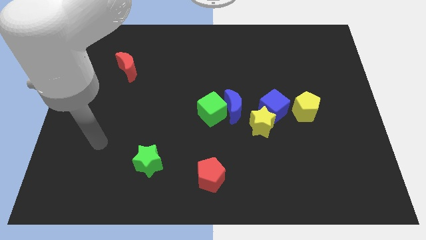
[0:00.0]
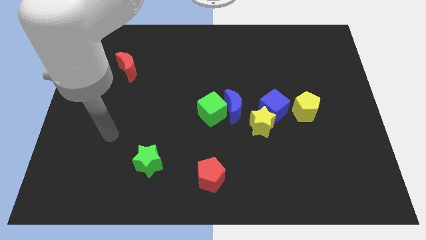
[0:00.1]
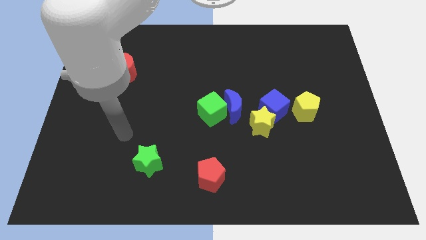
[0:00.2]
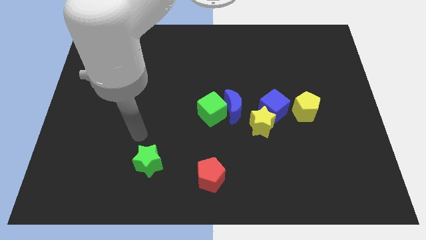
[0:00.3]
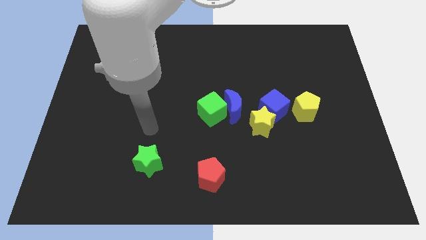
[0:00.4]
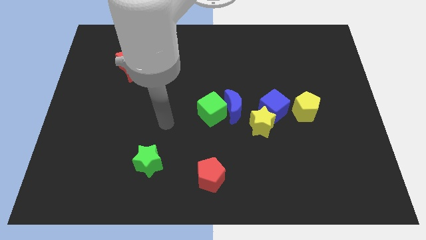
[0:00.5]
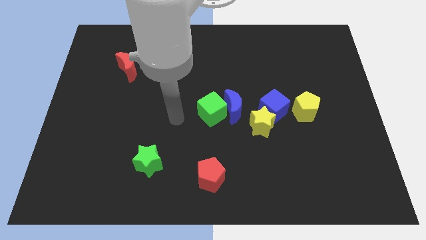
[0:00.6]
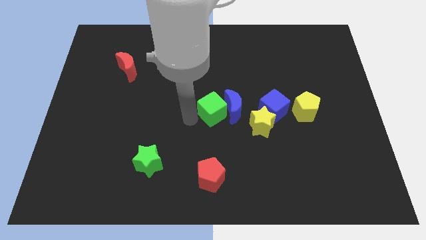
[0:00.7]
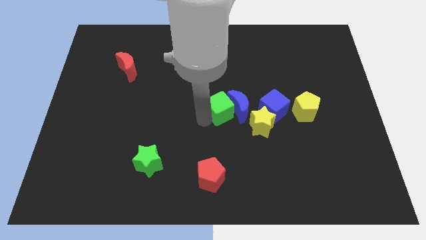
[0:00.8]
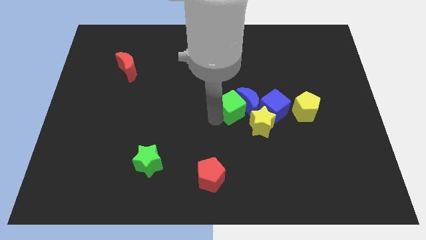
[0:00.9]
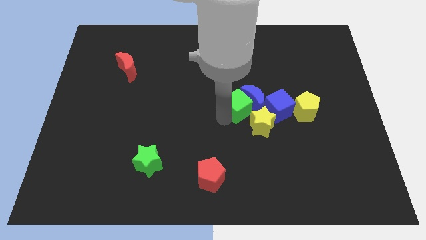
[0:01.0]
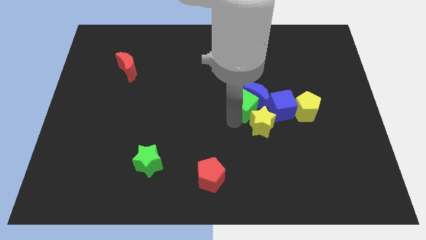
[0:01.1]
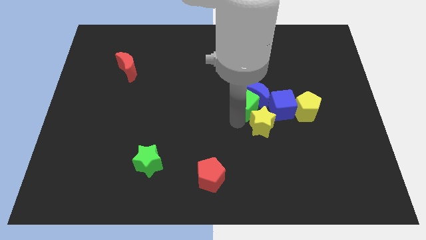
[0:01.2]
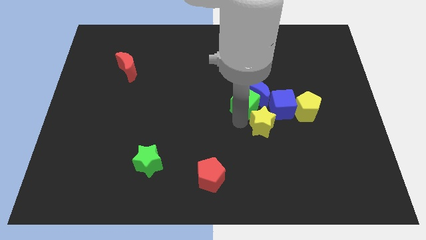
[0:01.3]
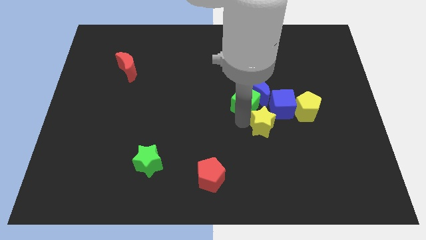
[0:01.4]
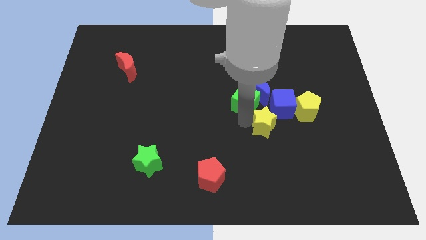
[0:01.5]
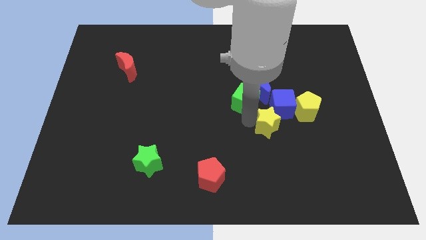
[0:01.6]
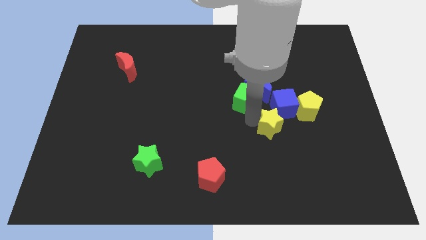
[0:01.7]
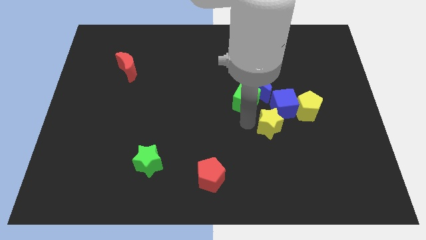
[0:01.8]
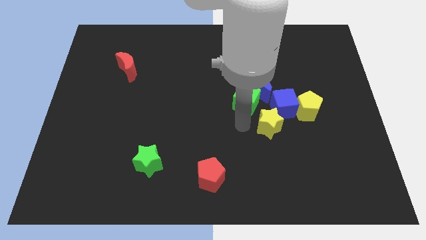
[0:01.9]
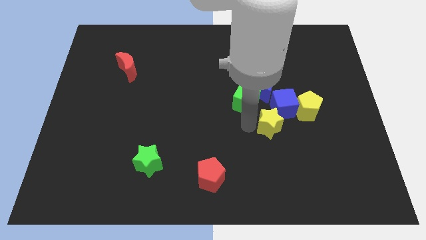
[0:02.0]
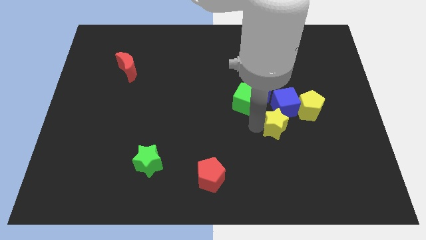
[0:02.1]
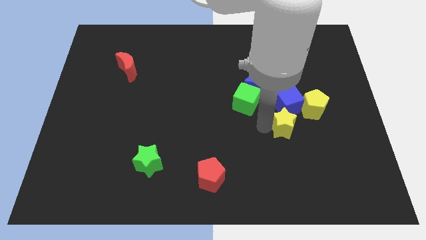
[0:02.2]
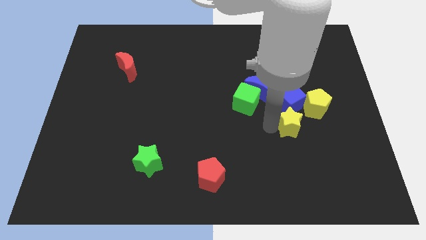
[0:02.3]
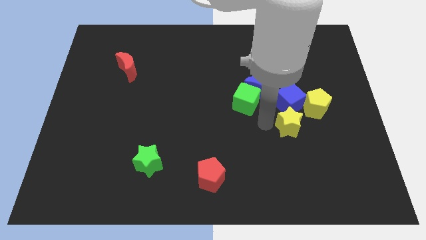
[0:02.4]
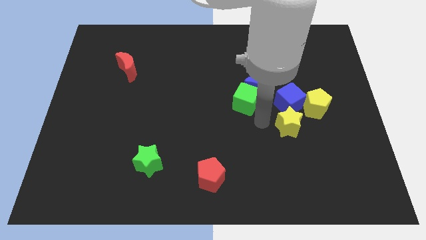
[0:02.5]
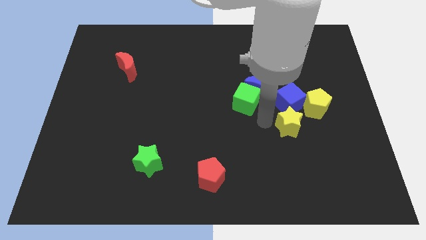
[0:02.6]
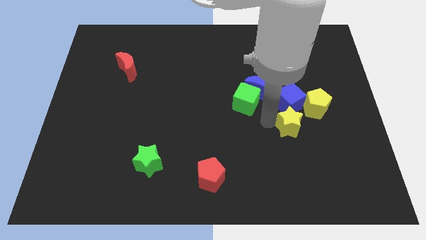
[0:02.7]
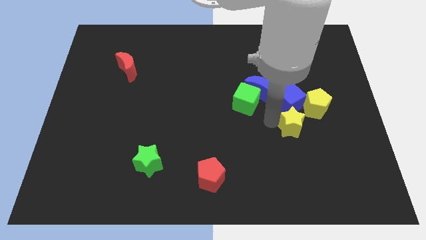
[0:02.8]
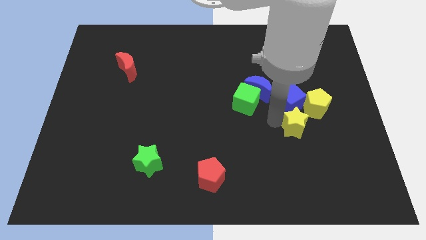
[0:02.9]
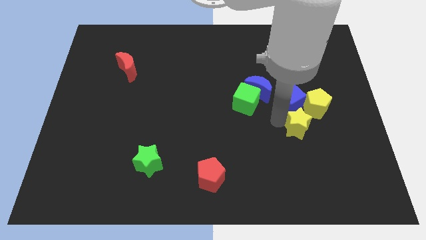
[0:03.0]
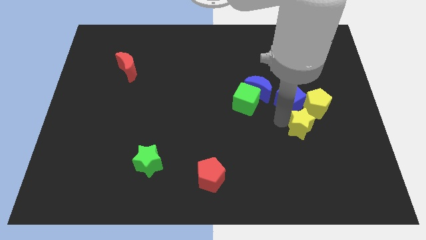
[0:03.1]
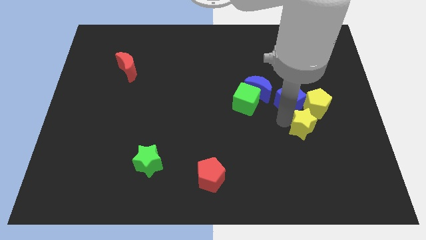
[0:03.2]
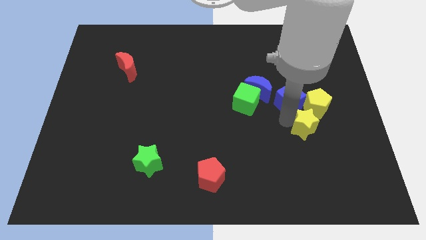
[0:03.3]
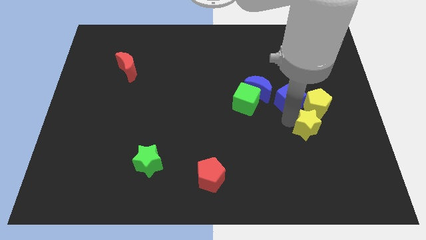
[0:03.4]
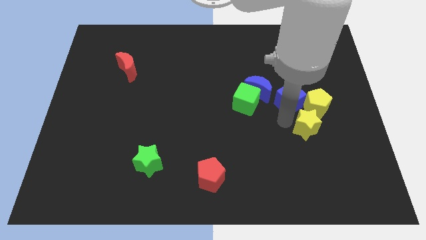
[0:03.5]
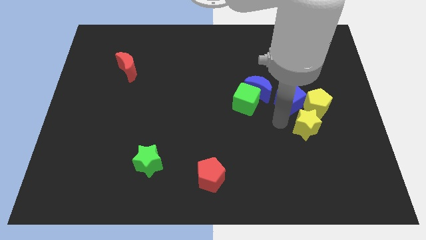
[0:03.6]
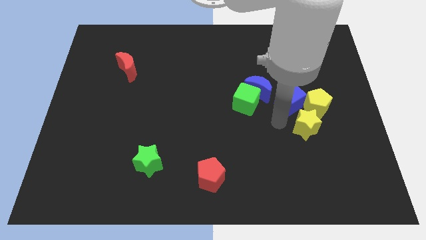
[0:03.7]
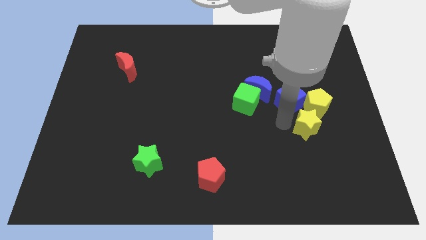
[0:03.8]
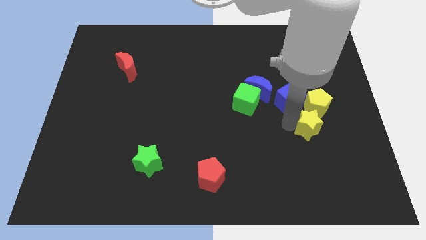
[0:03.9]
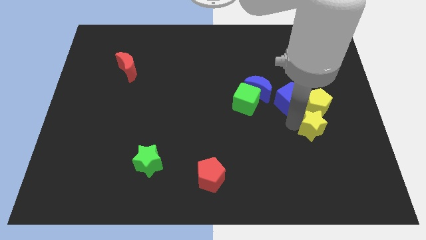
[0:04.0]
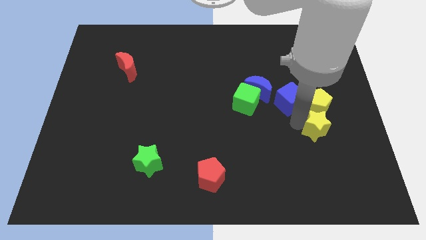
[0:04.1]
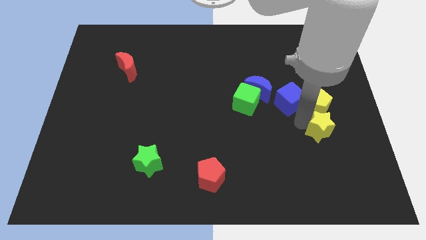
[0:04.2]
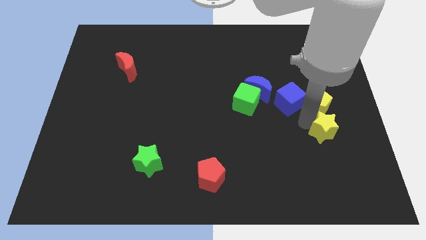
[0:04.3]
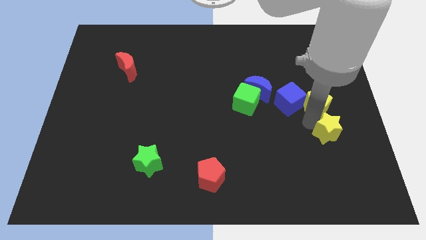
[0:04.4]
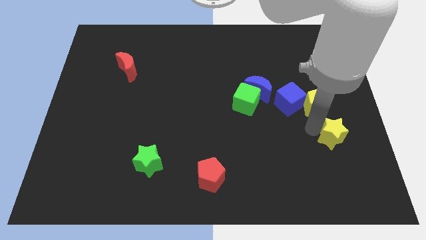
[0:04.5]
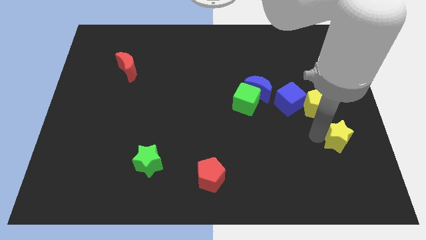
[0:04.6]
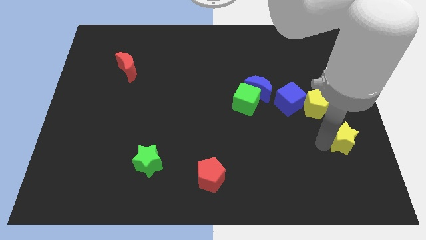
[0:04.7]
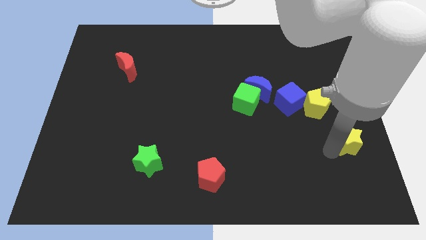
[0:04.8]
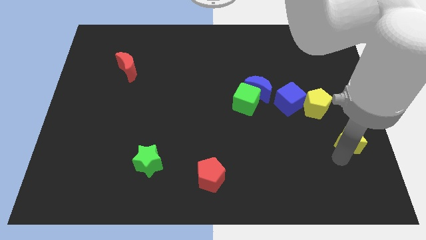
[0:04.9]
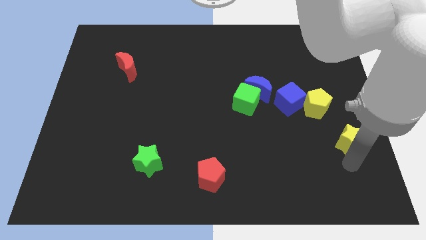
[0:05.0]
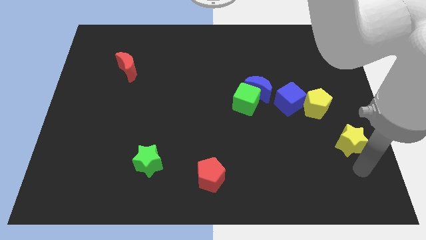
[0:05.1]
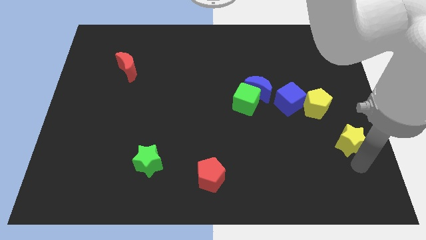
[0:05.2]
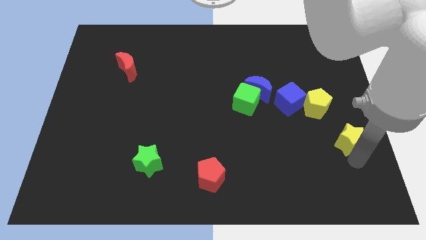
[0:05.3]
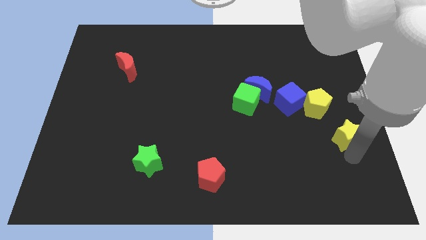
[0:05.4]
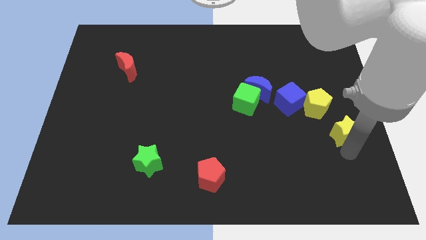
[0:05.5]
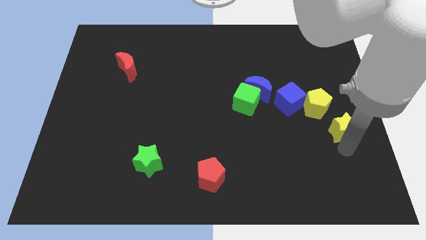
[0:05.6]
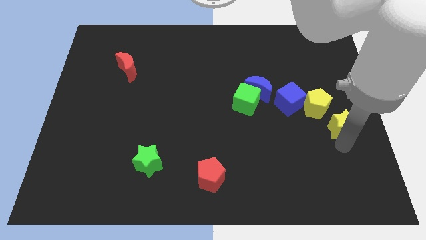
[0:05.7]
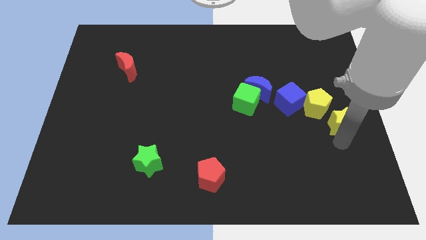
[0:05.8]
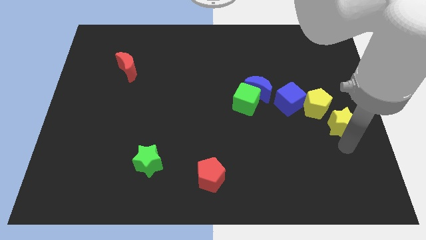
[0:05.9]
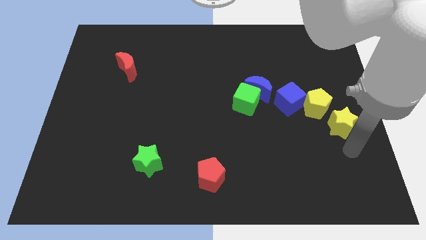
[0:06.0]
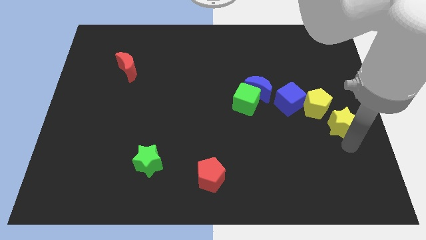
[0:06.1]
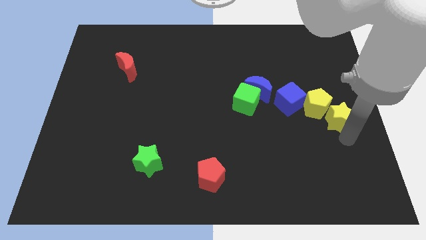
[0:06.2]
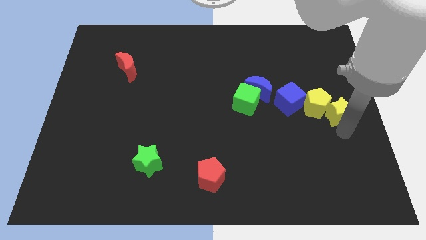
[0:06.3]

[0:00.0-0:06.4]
put the yellow star just right of the blue cube

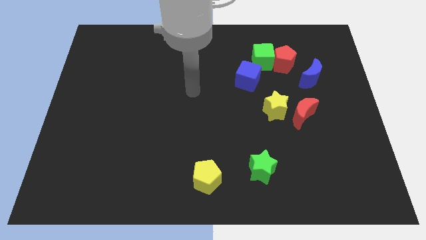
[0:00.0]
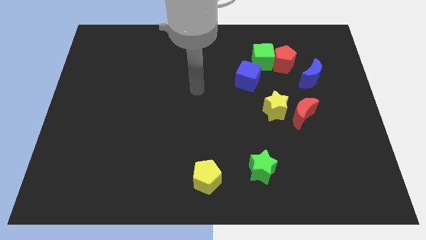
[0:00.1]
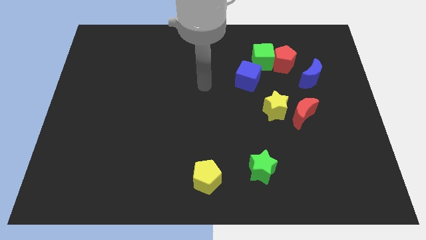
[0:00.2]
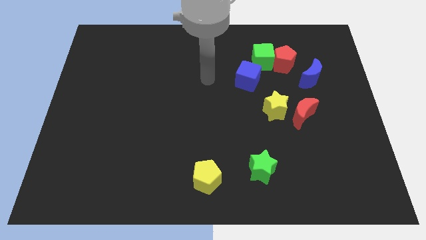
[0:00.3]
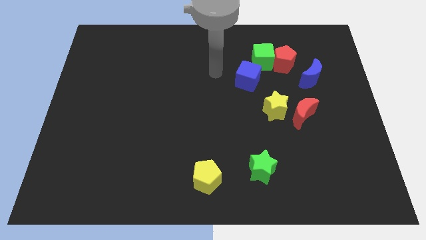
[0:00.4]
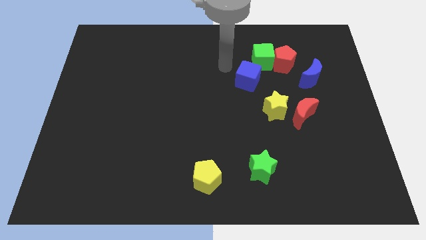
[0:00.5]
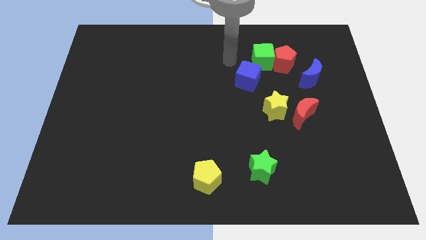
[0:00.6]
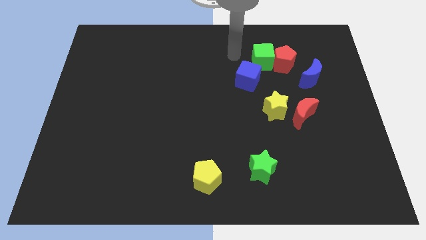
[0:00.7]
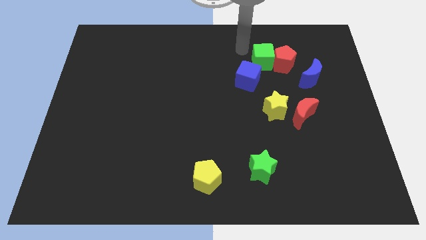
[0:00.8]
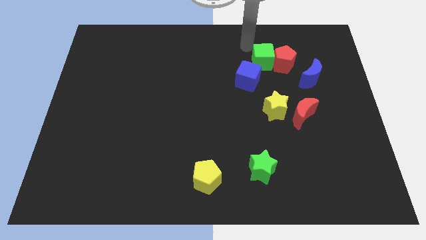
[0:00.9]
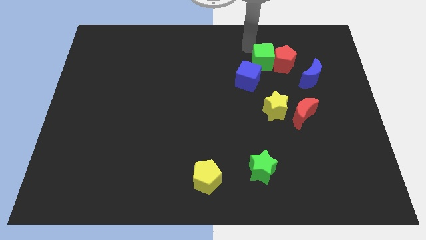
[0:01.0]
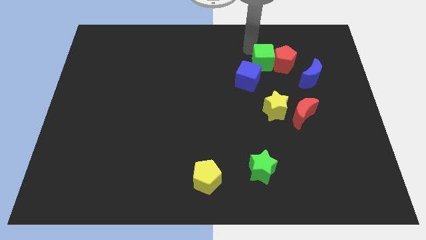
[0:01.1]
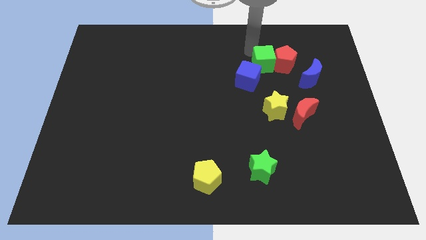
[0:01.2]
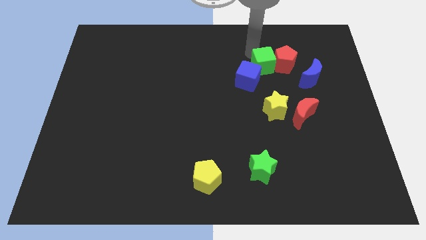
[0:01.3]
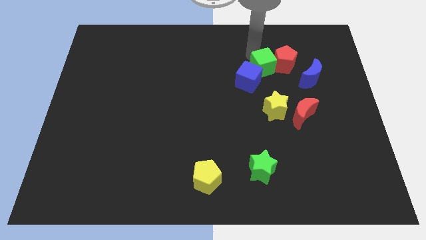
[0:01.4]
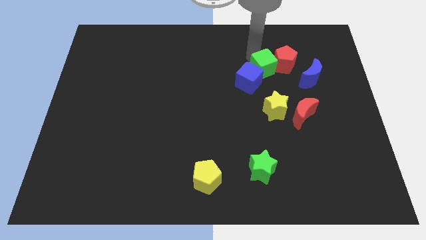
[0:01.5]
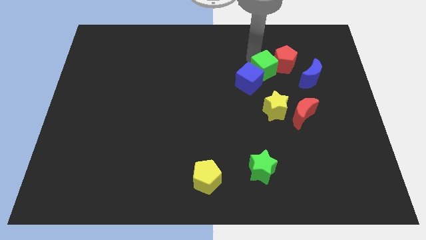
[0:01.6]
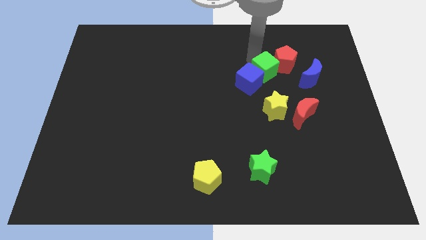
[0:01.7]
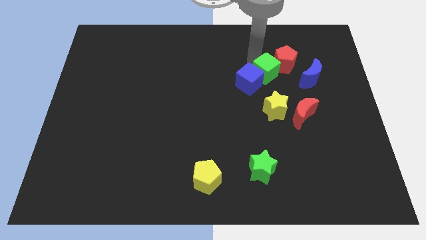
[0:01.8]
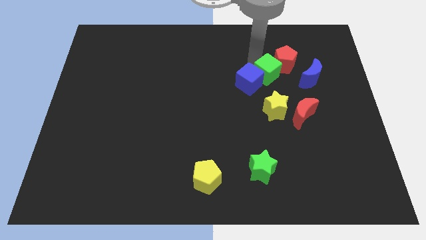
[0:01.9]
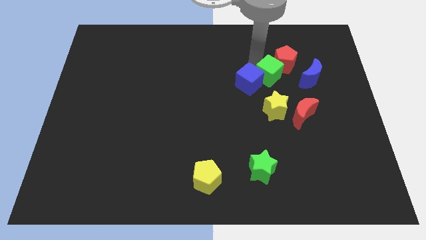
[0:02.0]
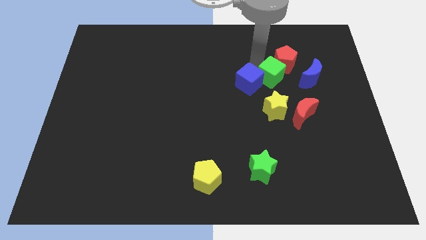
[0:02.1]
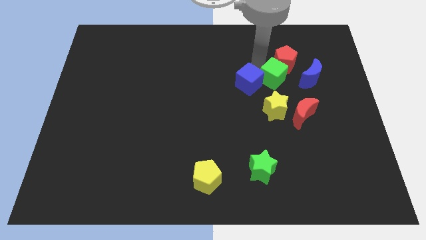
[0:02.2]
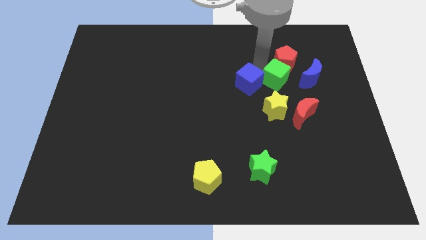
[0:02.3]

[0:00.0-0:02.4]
put the green cube to the top of the red moon
